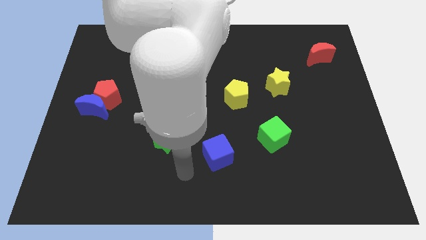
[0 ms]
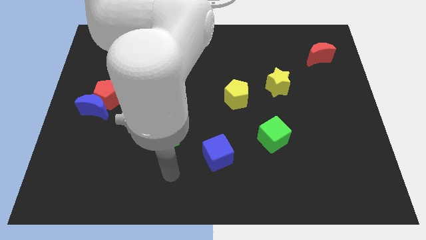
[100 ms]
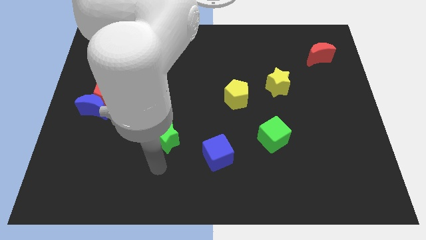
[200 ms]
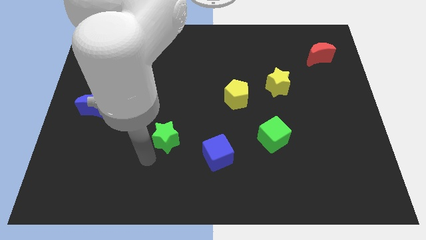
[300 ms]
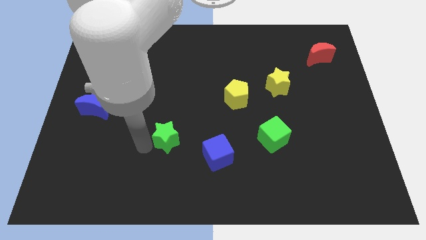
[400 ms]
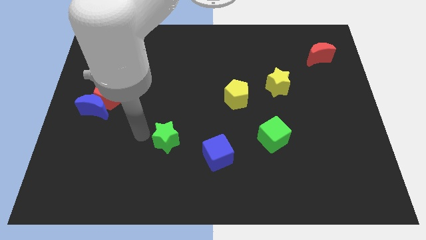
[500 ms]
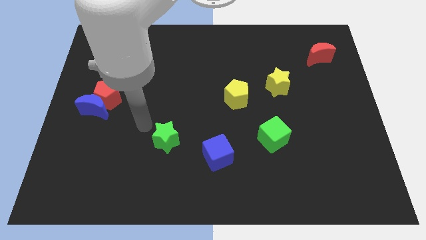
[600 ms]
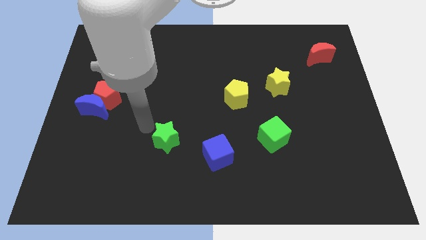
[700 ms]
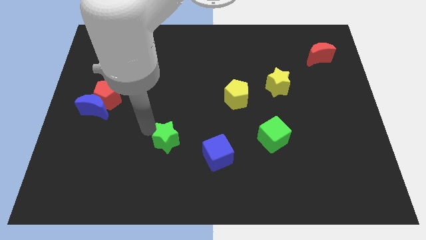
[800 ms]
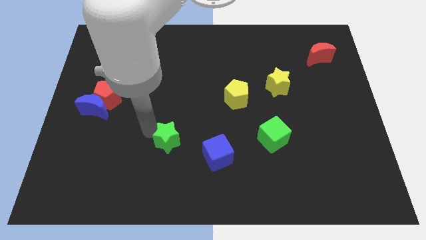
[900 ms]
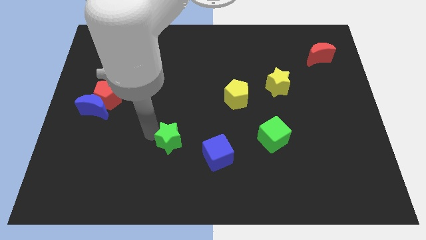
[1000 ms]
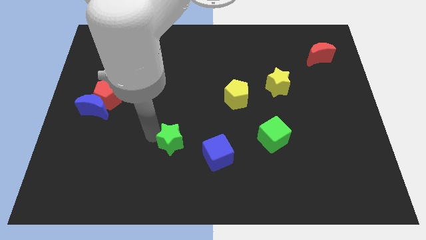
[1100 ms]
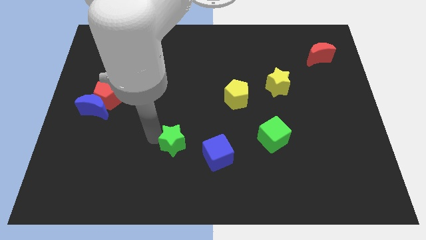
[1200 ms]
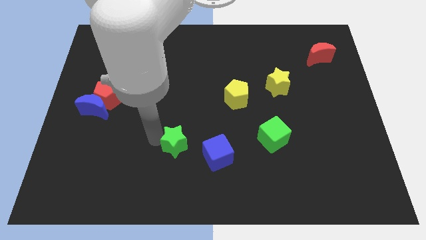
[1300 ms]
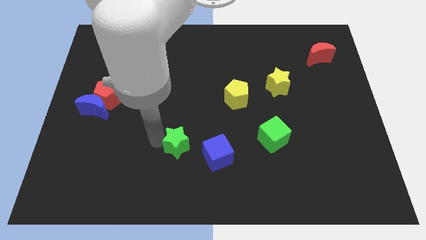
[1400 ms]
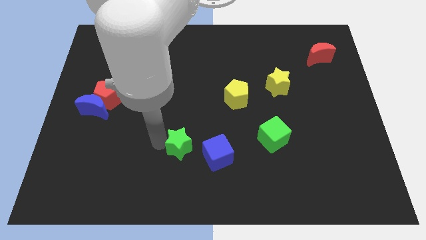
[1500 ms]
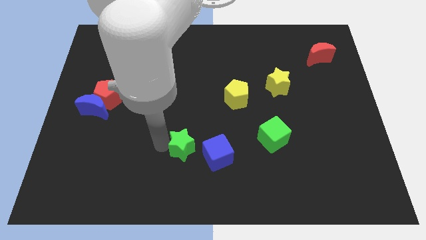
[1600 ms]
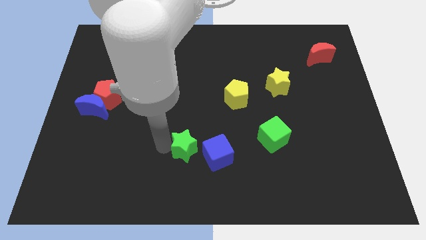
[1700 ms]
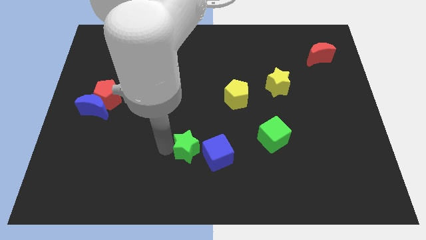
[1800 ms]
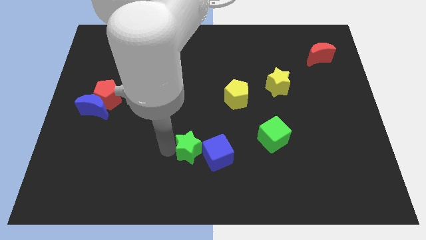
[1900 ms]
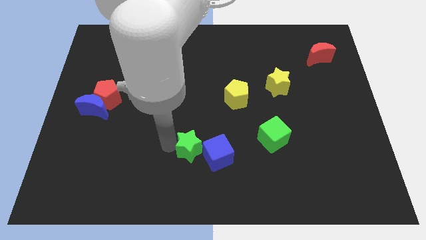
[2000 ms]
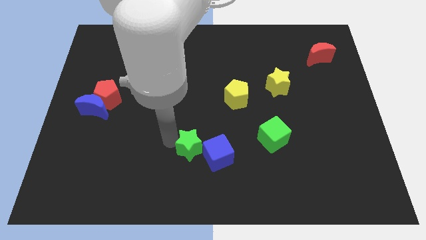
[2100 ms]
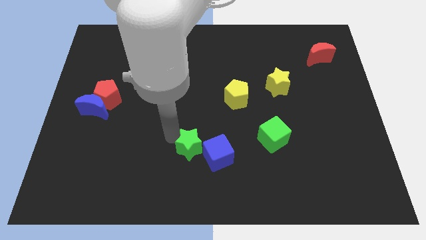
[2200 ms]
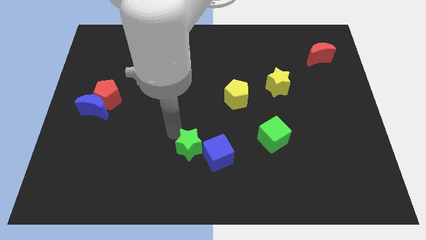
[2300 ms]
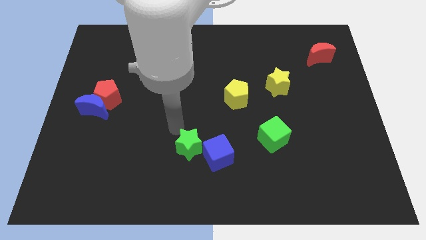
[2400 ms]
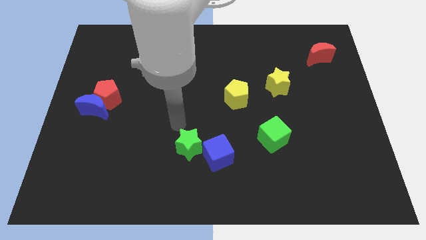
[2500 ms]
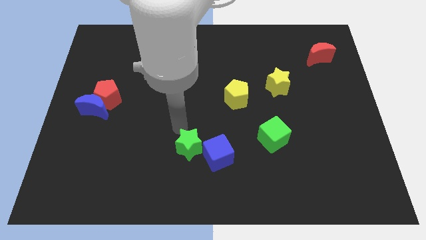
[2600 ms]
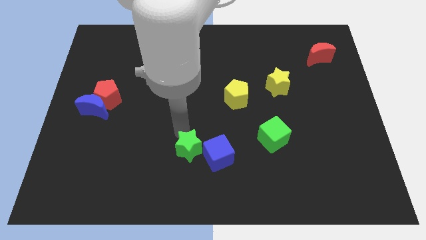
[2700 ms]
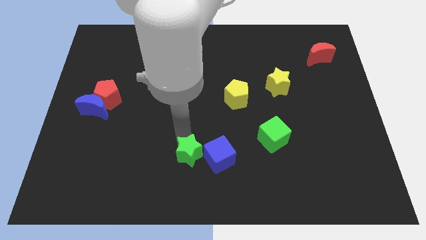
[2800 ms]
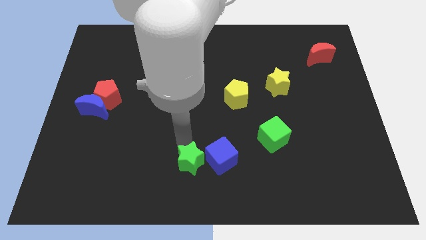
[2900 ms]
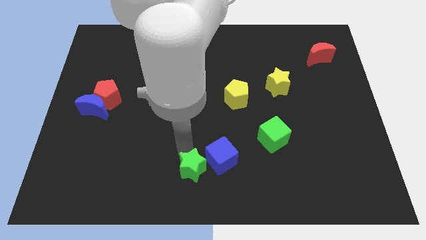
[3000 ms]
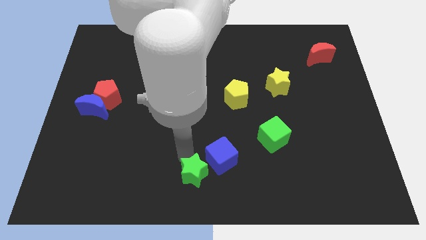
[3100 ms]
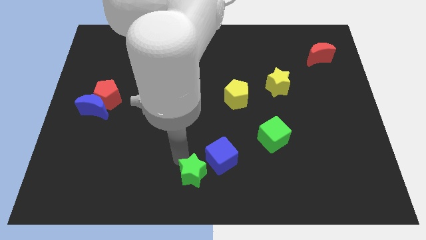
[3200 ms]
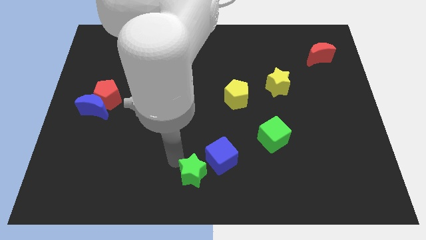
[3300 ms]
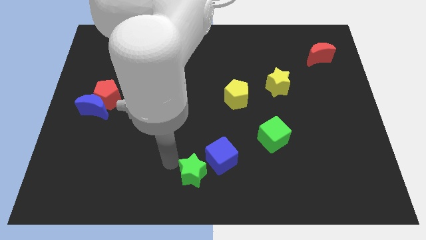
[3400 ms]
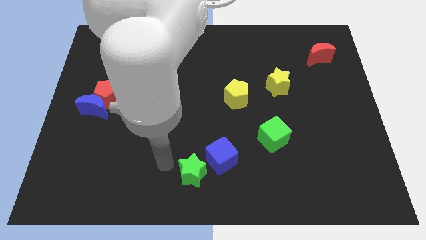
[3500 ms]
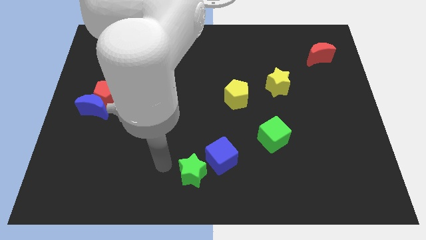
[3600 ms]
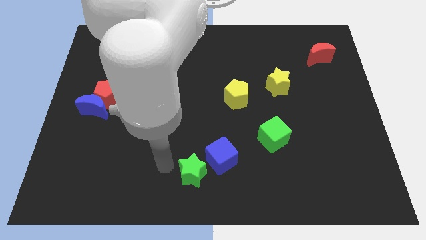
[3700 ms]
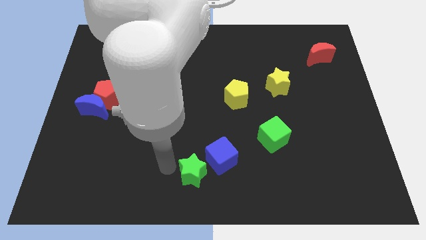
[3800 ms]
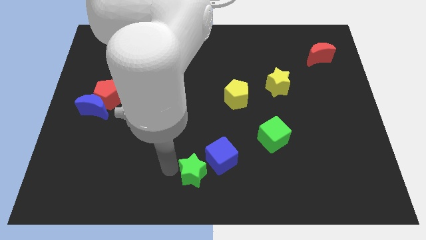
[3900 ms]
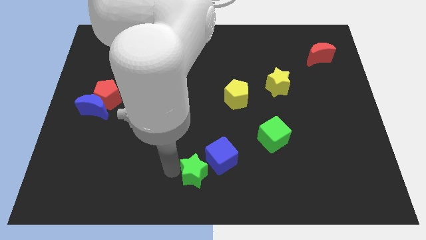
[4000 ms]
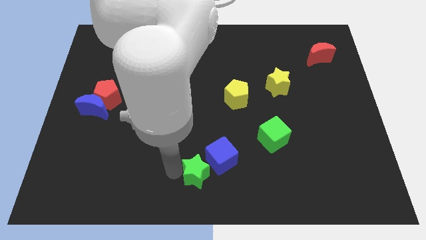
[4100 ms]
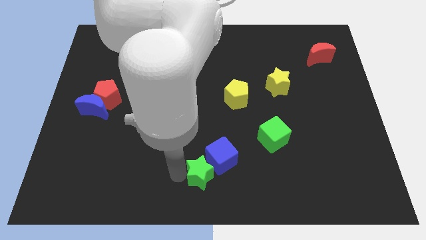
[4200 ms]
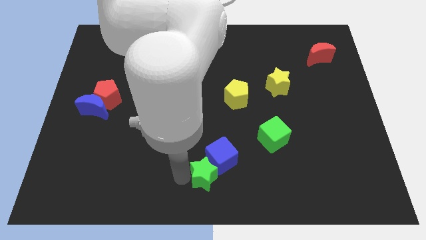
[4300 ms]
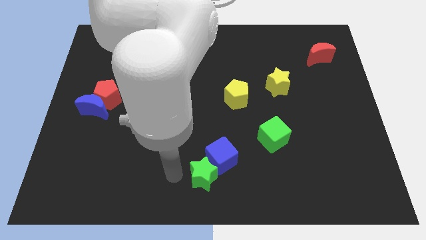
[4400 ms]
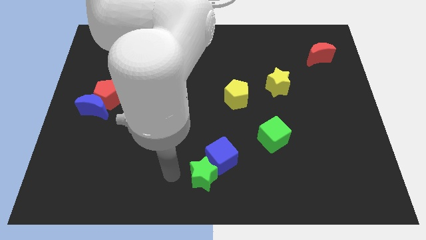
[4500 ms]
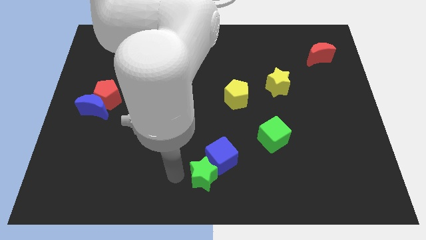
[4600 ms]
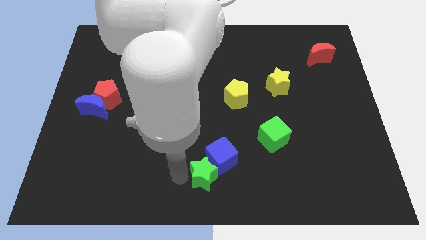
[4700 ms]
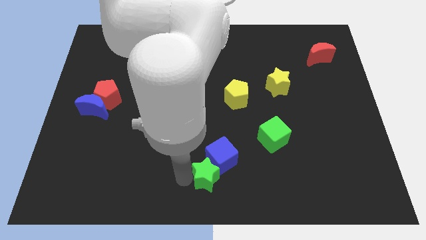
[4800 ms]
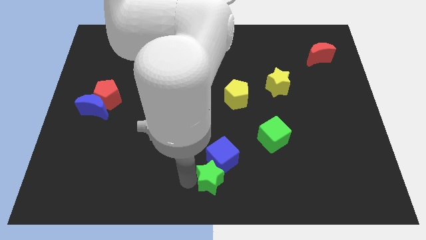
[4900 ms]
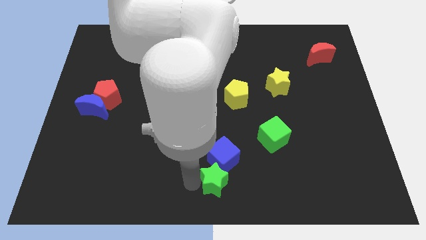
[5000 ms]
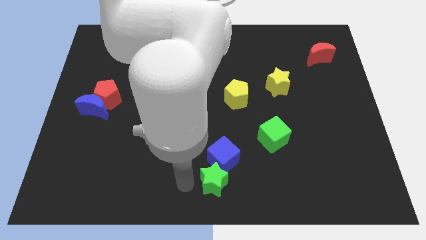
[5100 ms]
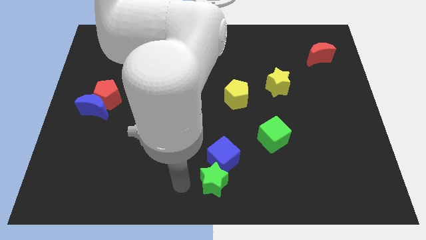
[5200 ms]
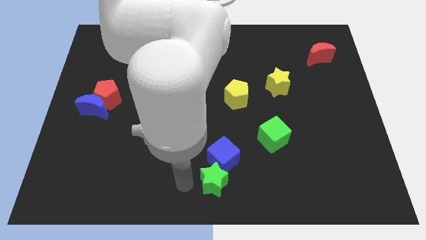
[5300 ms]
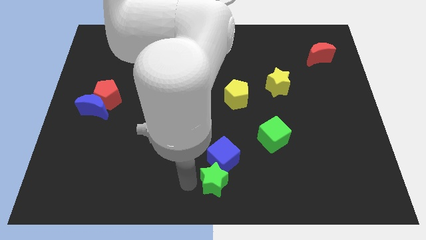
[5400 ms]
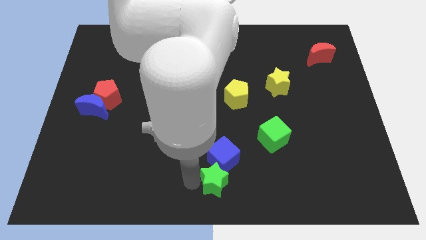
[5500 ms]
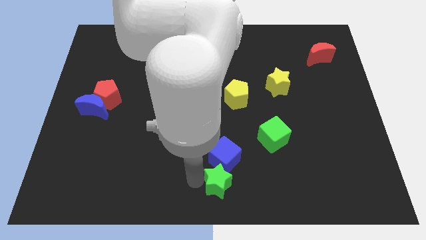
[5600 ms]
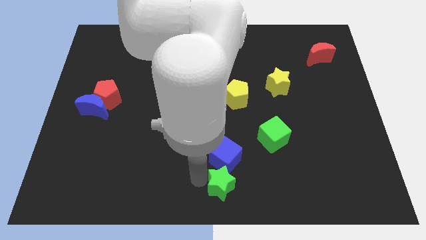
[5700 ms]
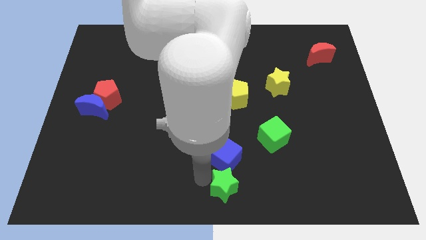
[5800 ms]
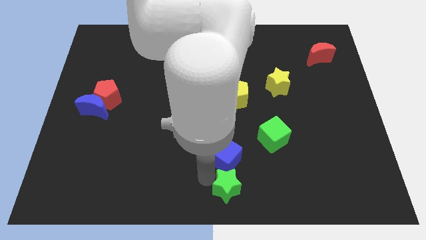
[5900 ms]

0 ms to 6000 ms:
move the green star to the bottom right of the blue cube
